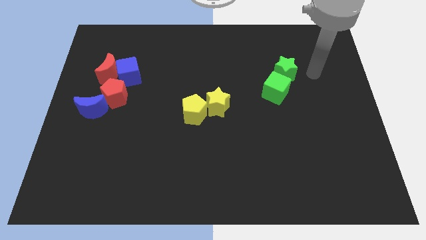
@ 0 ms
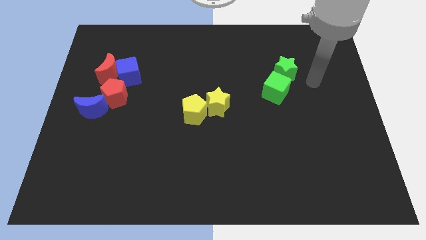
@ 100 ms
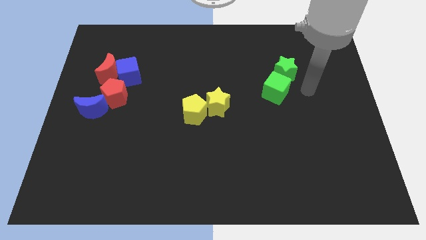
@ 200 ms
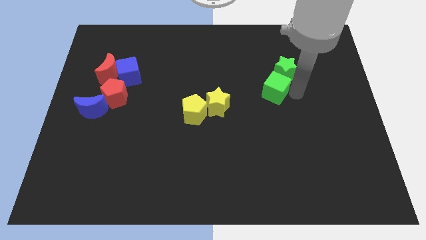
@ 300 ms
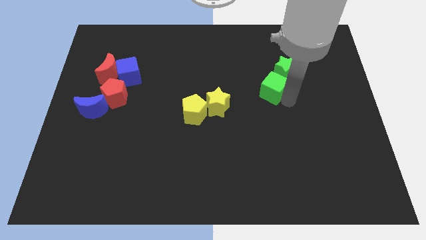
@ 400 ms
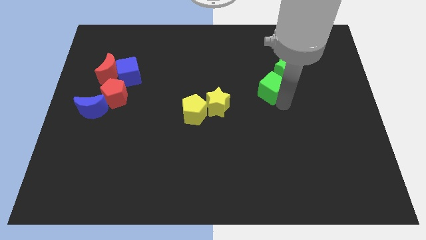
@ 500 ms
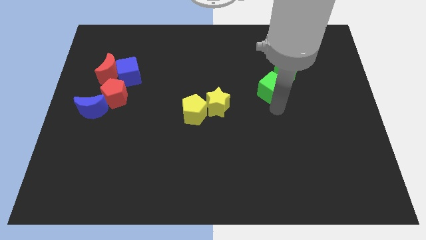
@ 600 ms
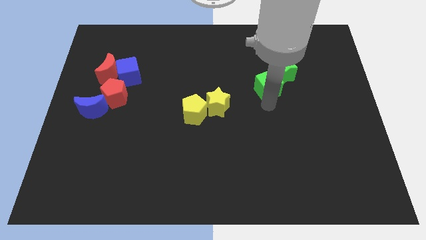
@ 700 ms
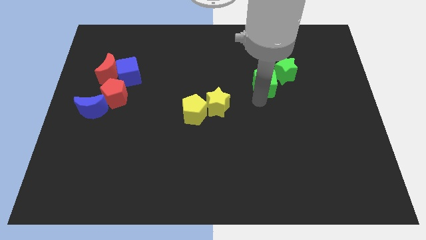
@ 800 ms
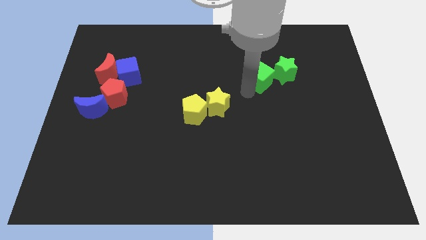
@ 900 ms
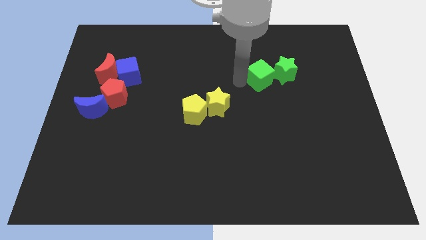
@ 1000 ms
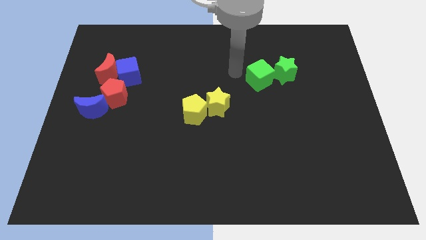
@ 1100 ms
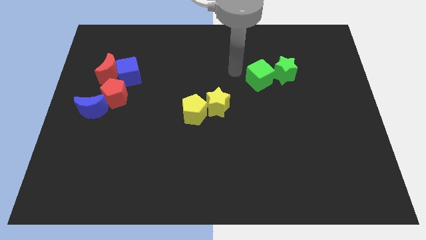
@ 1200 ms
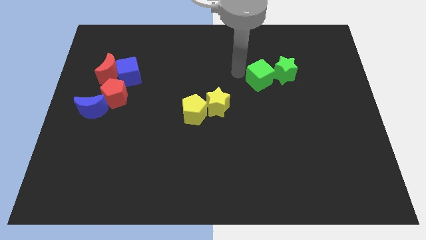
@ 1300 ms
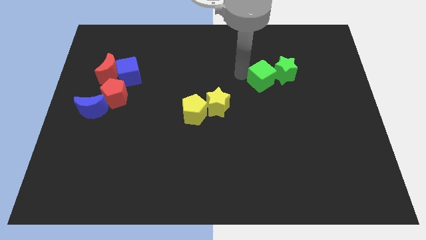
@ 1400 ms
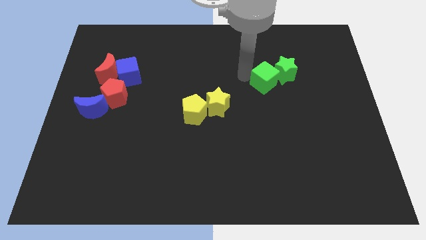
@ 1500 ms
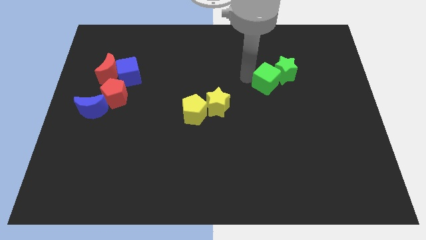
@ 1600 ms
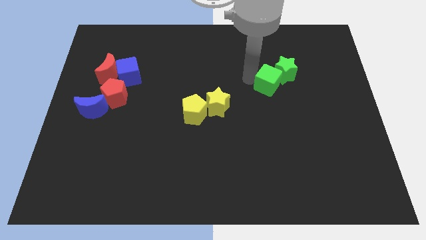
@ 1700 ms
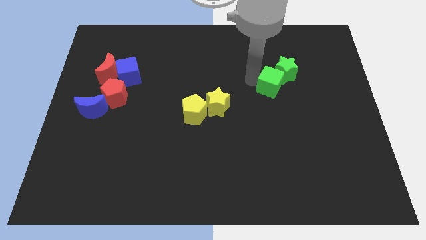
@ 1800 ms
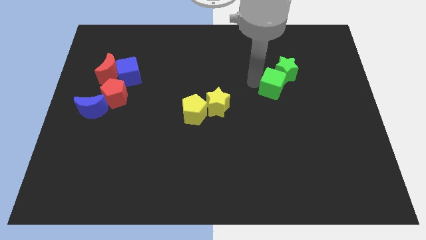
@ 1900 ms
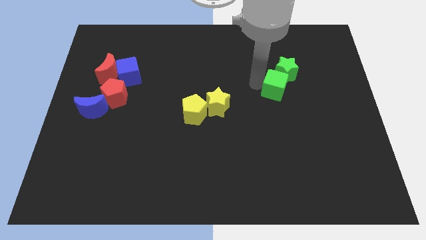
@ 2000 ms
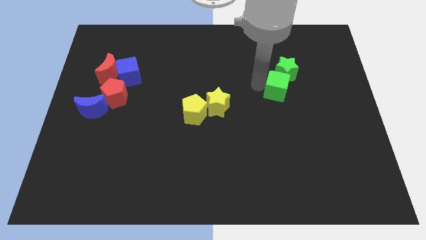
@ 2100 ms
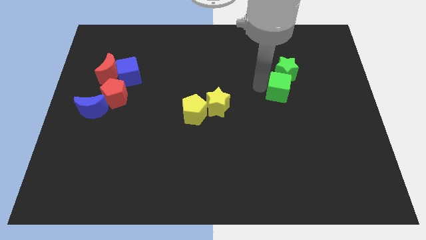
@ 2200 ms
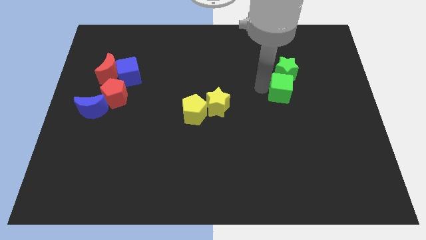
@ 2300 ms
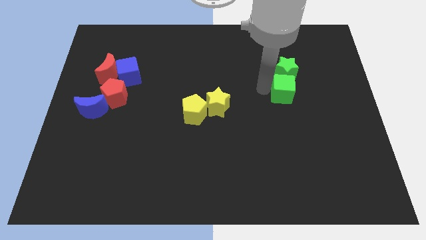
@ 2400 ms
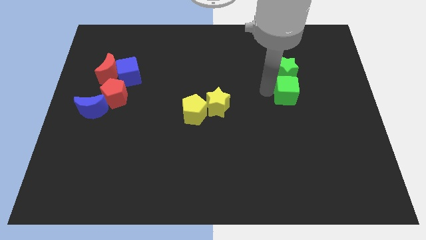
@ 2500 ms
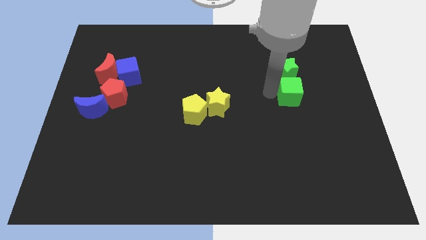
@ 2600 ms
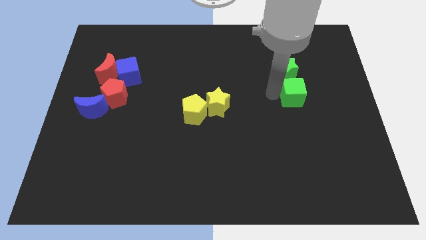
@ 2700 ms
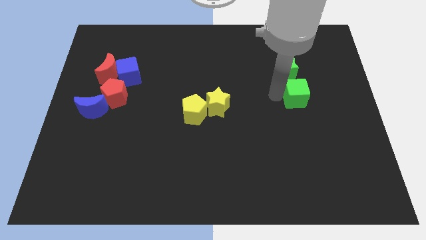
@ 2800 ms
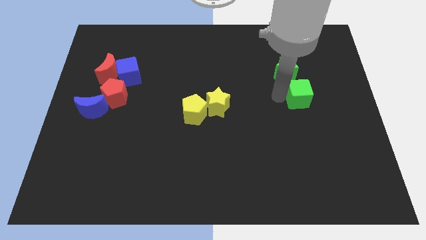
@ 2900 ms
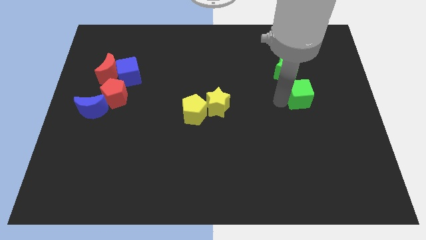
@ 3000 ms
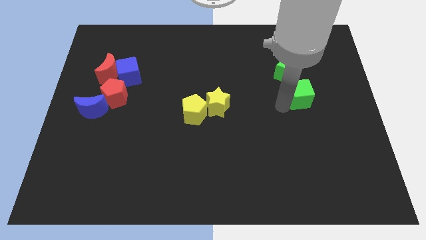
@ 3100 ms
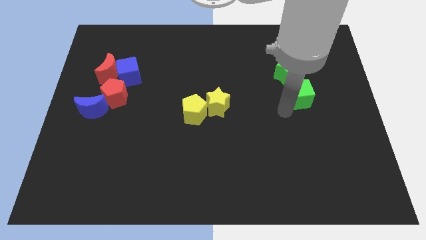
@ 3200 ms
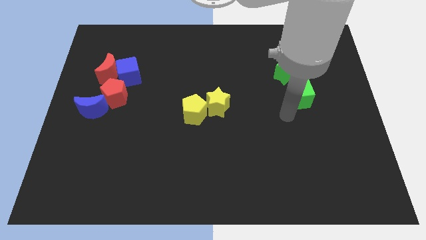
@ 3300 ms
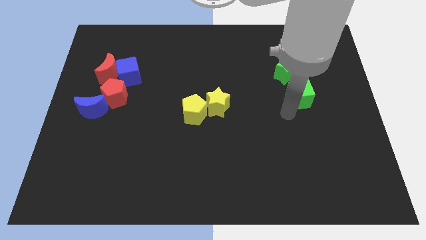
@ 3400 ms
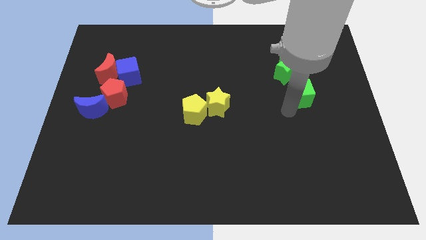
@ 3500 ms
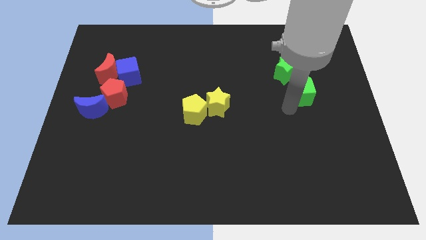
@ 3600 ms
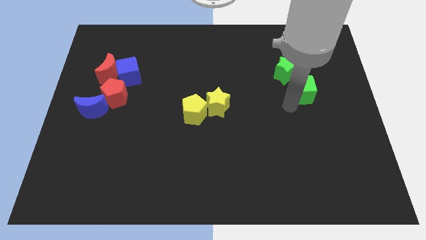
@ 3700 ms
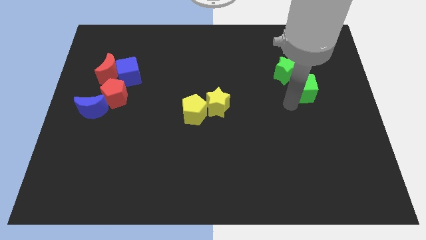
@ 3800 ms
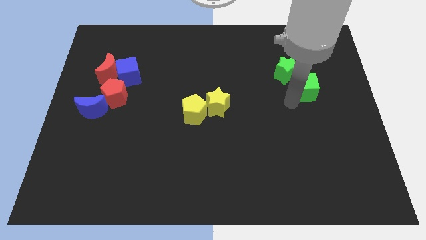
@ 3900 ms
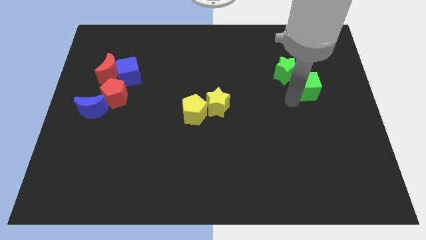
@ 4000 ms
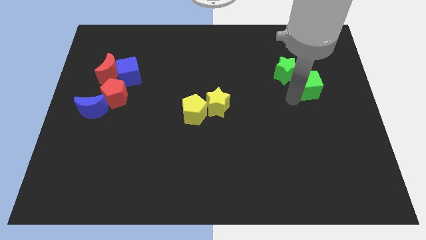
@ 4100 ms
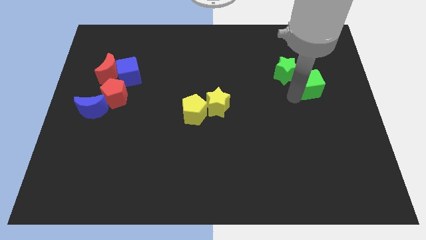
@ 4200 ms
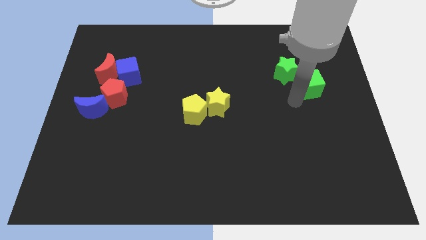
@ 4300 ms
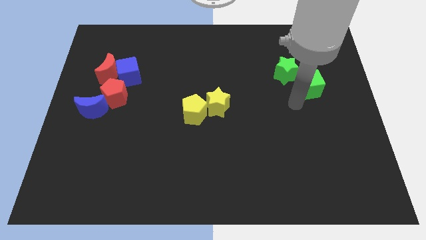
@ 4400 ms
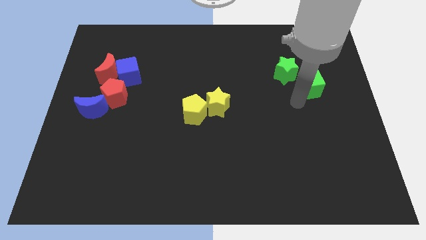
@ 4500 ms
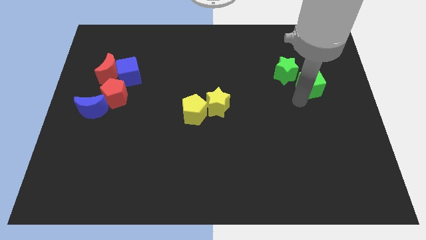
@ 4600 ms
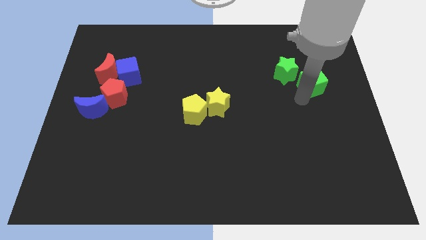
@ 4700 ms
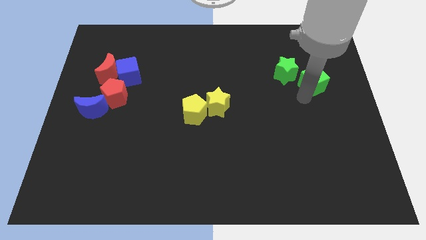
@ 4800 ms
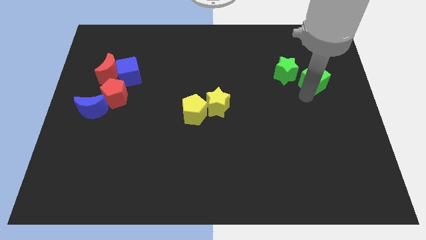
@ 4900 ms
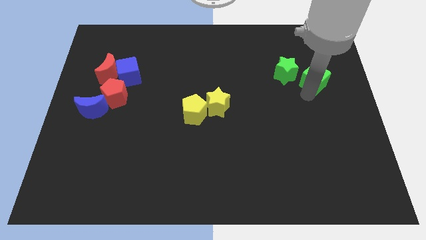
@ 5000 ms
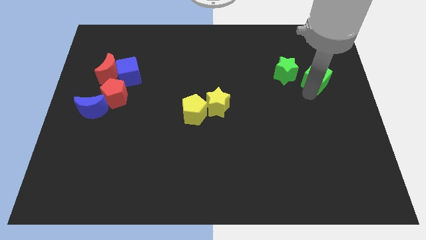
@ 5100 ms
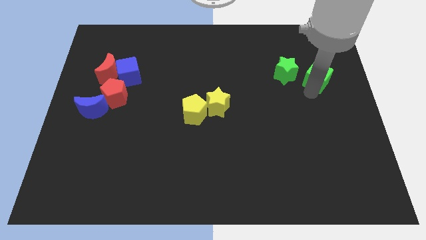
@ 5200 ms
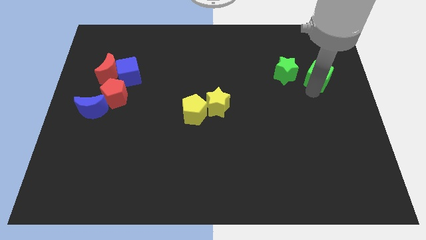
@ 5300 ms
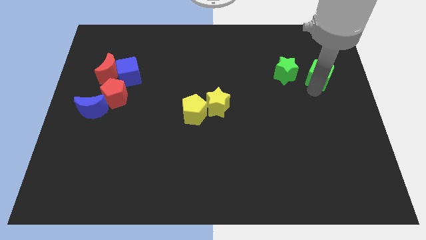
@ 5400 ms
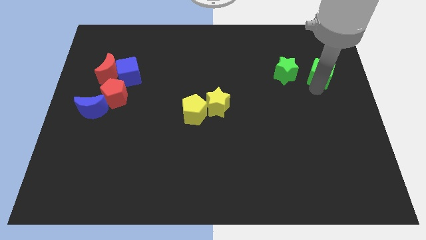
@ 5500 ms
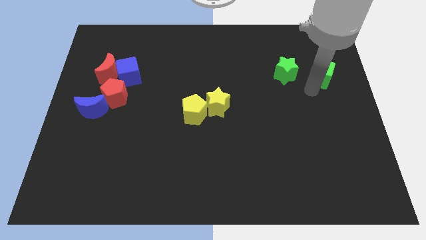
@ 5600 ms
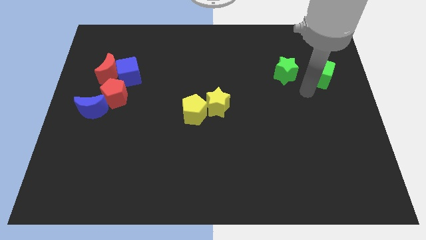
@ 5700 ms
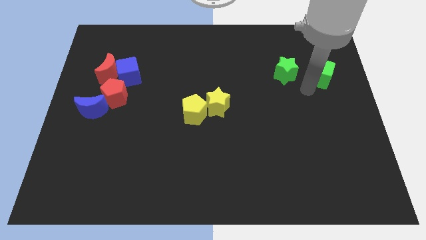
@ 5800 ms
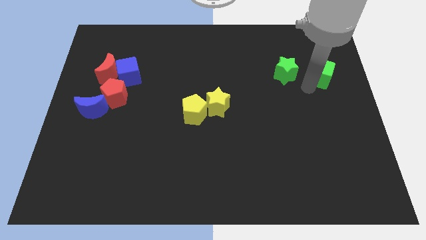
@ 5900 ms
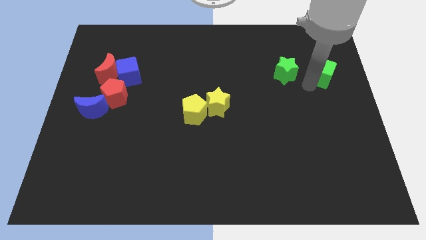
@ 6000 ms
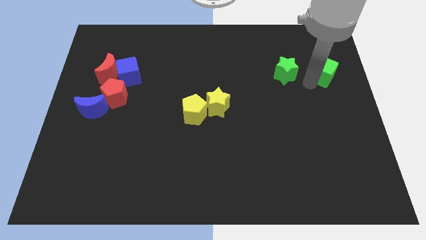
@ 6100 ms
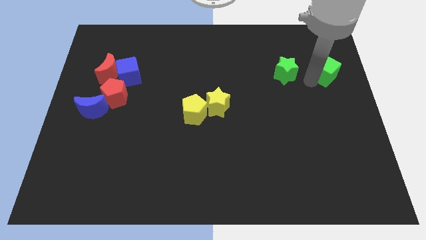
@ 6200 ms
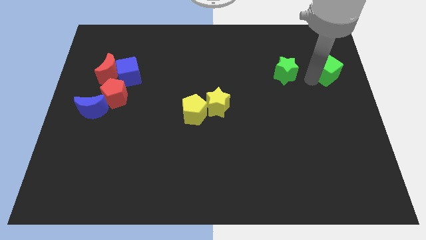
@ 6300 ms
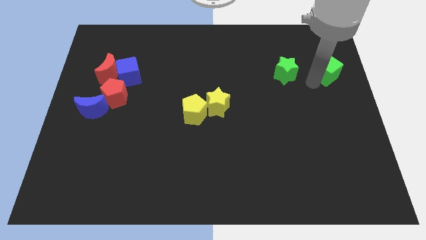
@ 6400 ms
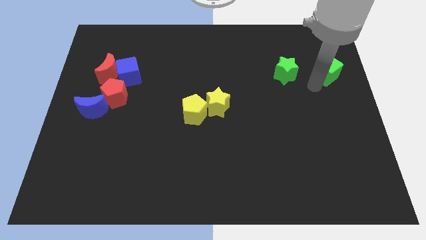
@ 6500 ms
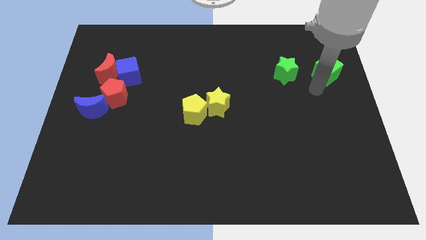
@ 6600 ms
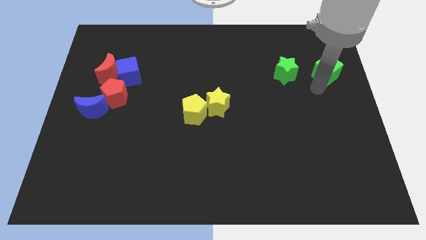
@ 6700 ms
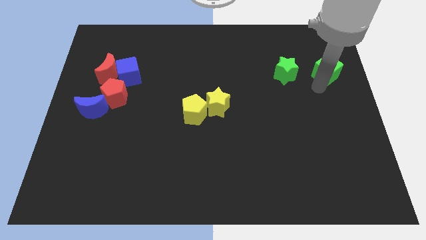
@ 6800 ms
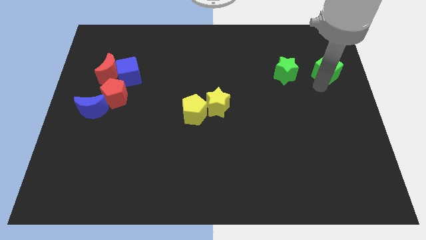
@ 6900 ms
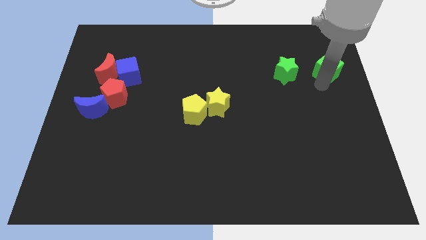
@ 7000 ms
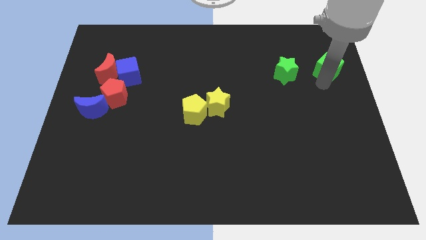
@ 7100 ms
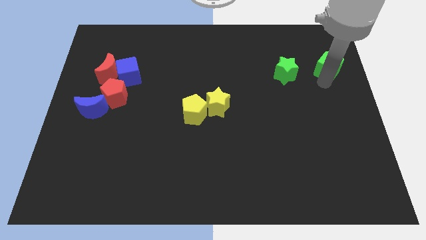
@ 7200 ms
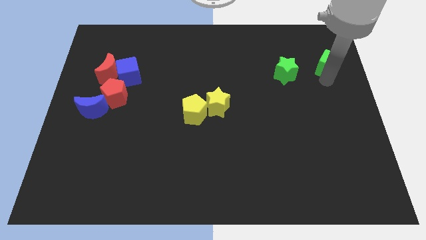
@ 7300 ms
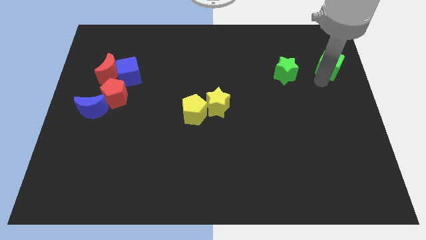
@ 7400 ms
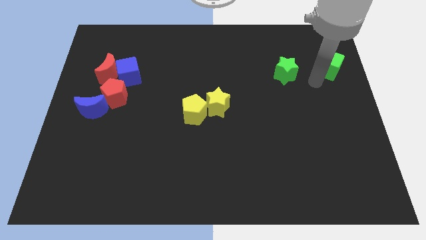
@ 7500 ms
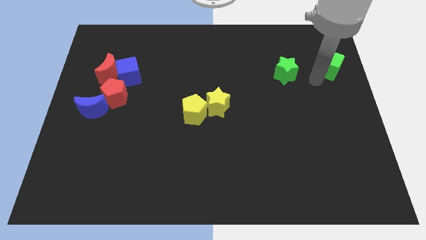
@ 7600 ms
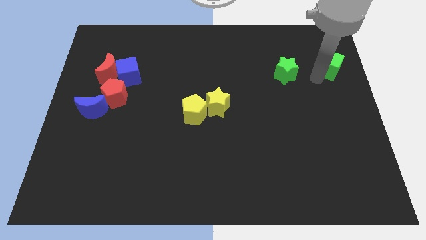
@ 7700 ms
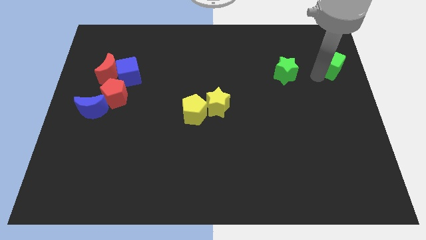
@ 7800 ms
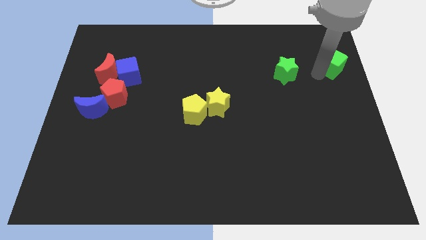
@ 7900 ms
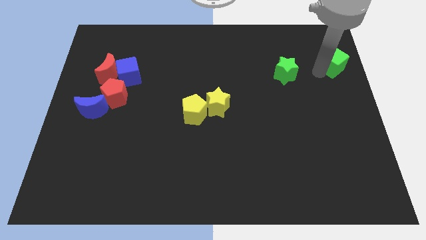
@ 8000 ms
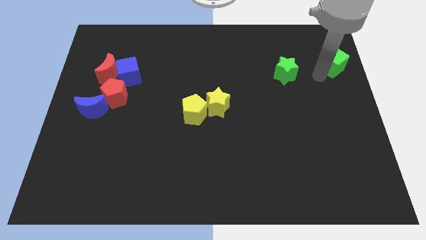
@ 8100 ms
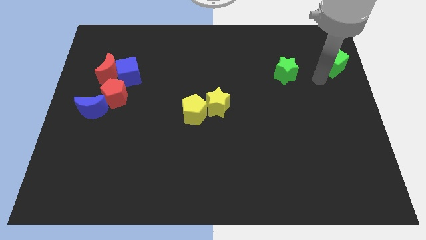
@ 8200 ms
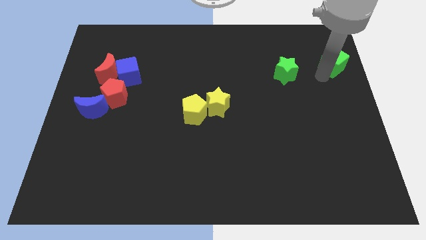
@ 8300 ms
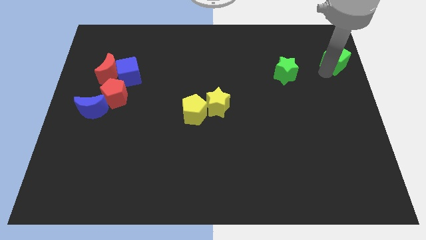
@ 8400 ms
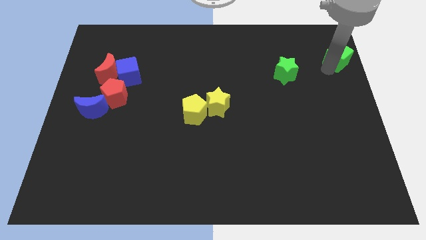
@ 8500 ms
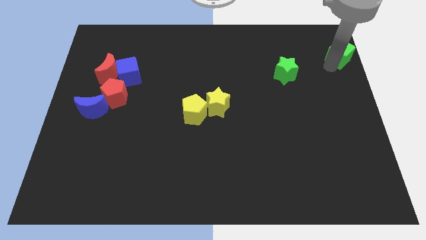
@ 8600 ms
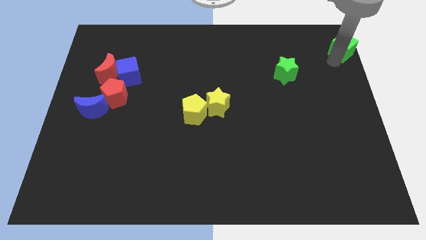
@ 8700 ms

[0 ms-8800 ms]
move the green cube to the upper right corner
